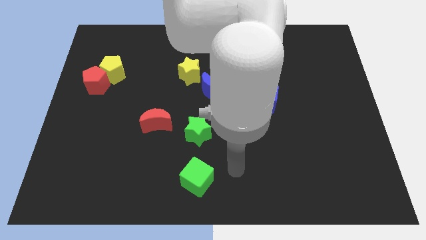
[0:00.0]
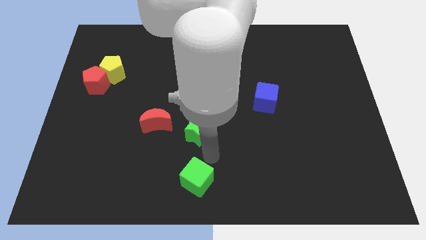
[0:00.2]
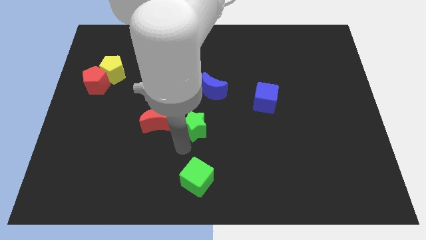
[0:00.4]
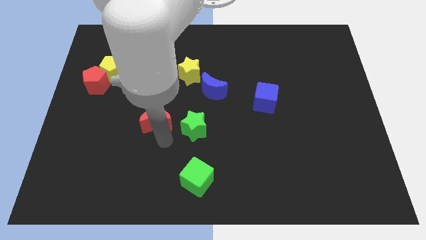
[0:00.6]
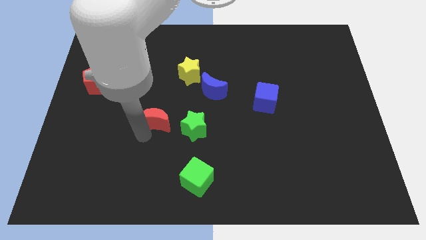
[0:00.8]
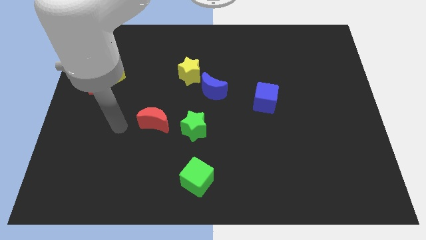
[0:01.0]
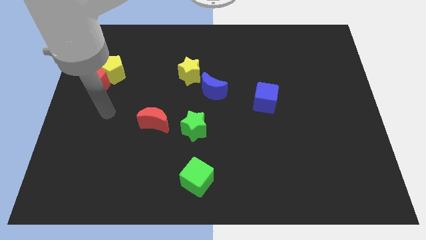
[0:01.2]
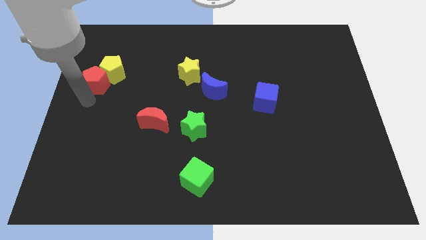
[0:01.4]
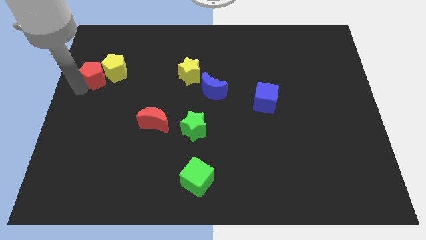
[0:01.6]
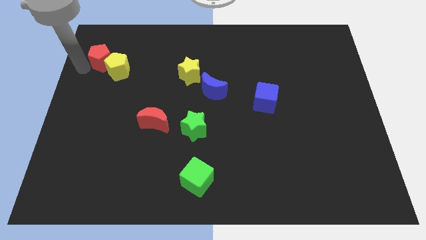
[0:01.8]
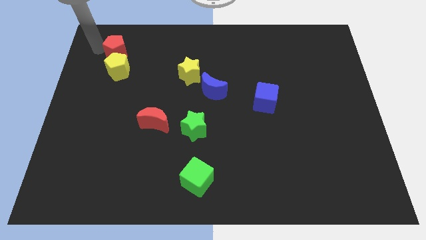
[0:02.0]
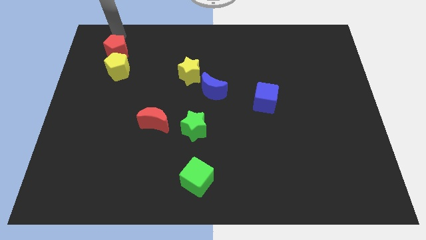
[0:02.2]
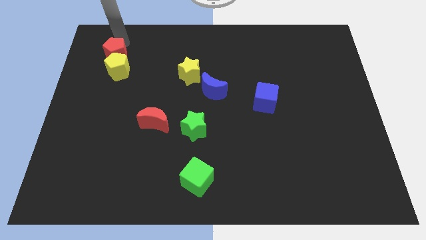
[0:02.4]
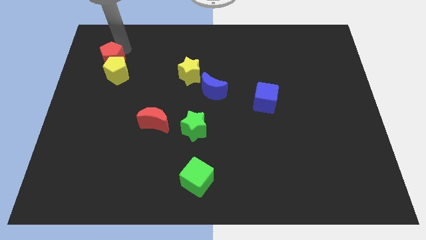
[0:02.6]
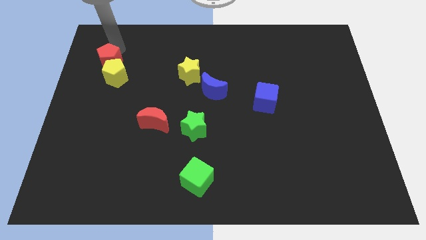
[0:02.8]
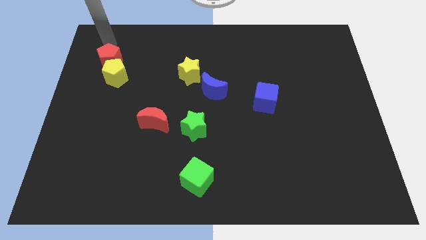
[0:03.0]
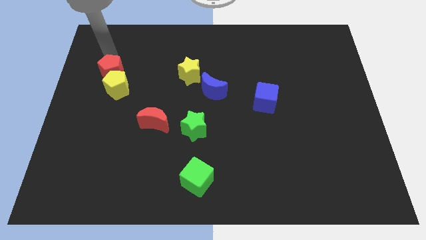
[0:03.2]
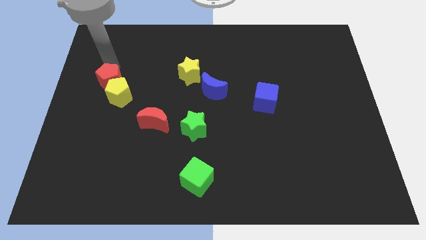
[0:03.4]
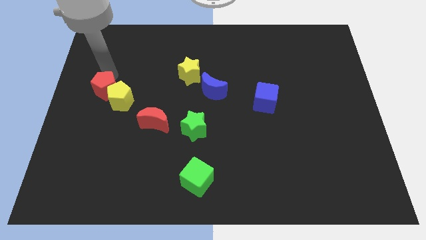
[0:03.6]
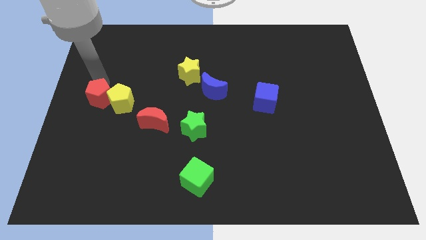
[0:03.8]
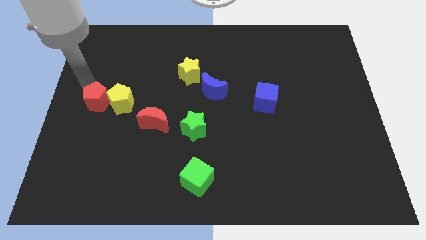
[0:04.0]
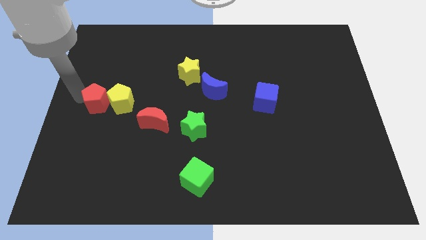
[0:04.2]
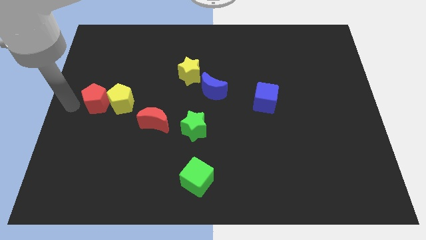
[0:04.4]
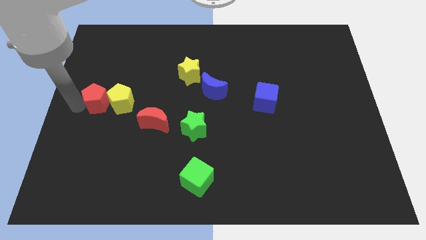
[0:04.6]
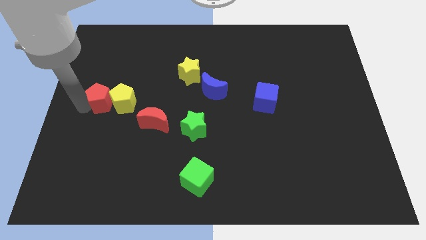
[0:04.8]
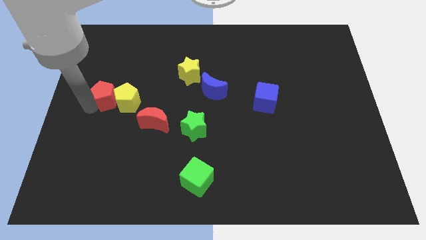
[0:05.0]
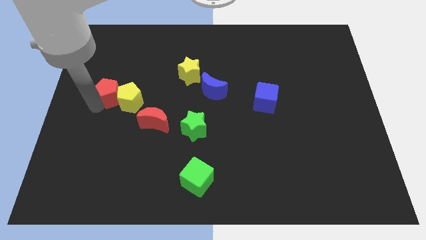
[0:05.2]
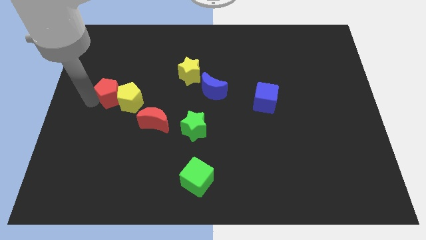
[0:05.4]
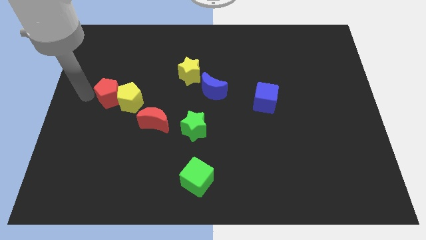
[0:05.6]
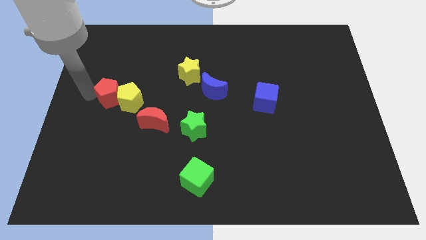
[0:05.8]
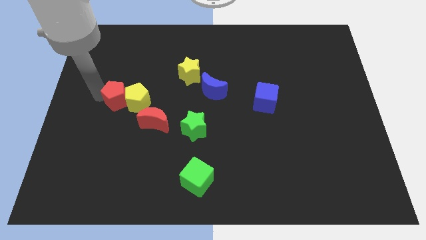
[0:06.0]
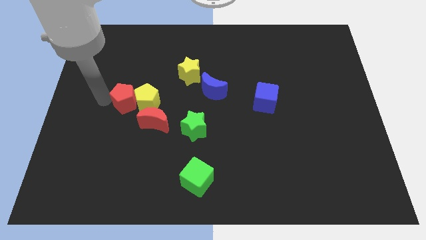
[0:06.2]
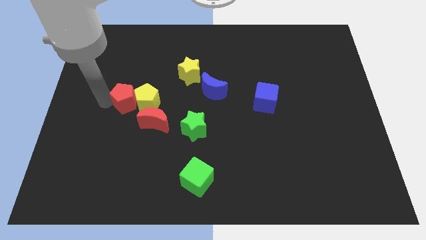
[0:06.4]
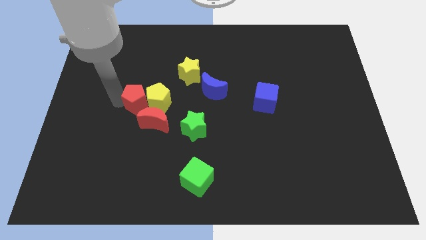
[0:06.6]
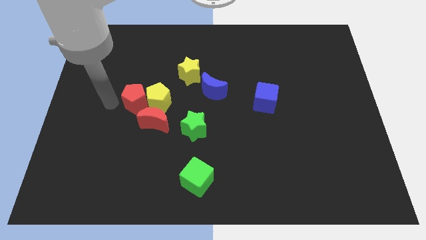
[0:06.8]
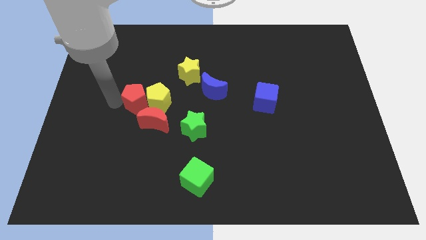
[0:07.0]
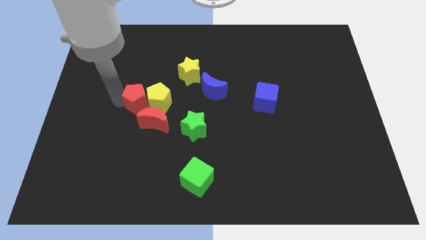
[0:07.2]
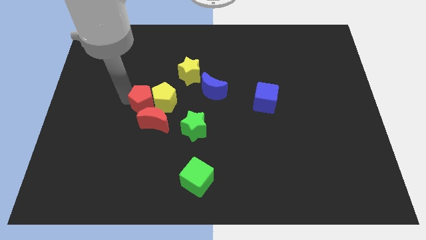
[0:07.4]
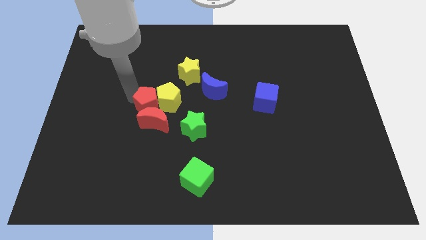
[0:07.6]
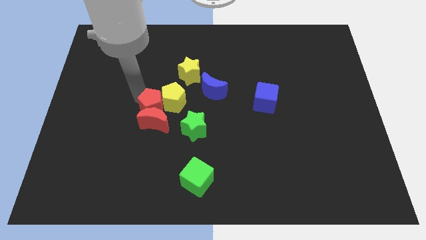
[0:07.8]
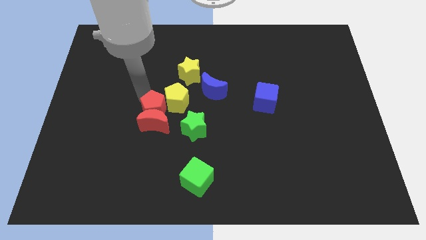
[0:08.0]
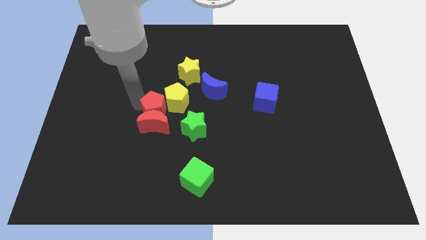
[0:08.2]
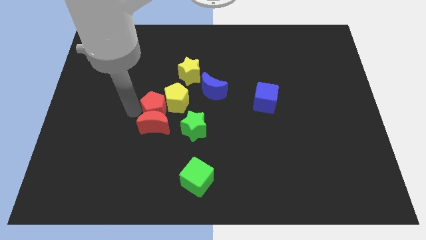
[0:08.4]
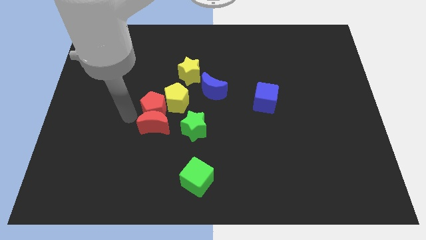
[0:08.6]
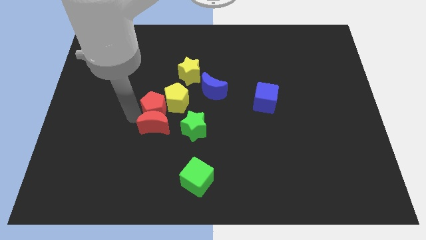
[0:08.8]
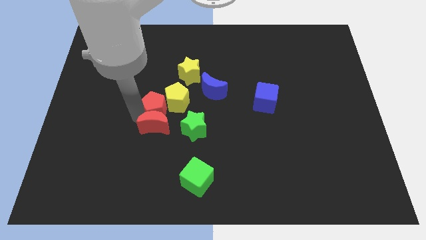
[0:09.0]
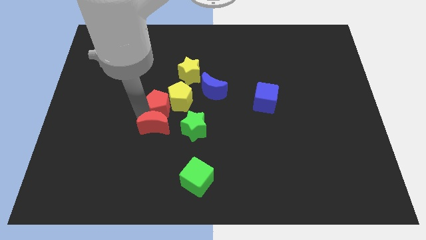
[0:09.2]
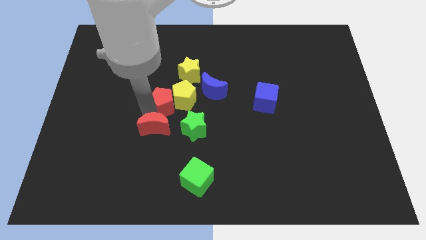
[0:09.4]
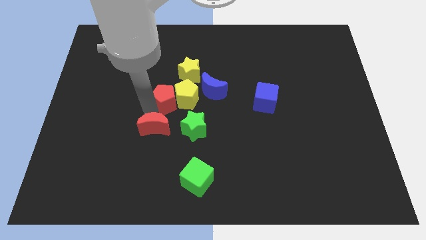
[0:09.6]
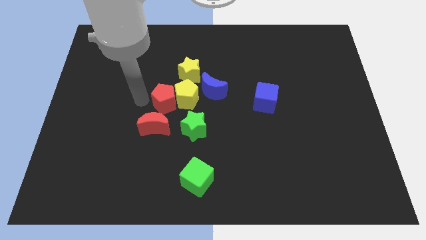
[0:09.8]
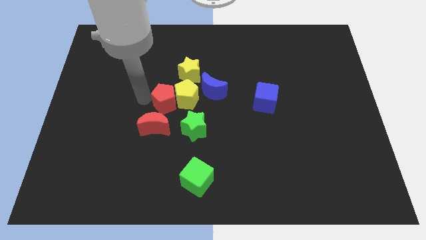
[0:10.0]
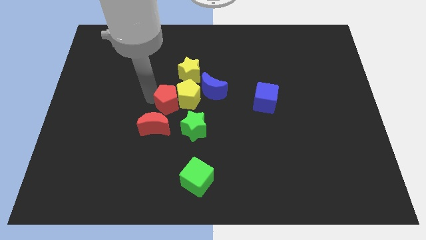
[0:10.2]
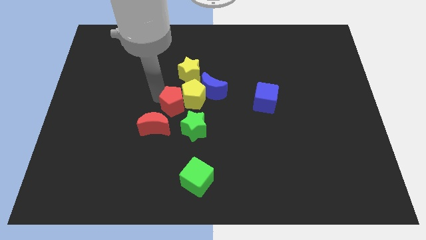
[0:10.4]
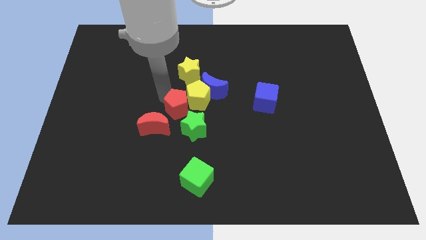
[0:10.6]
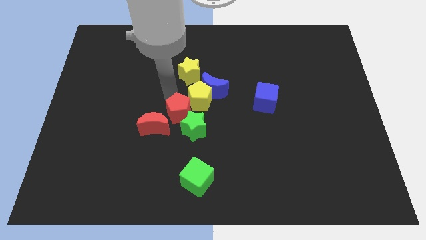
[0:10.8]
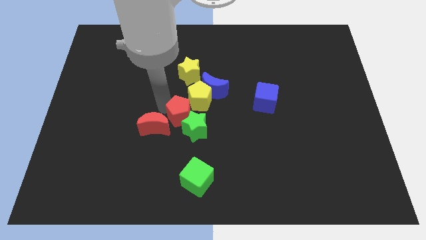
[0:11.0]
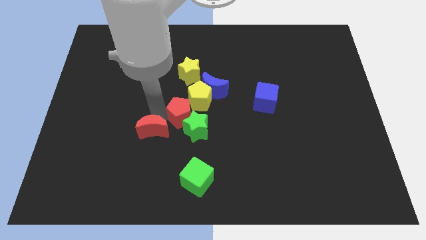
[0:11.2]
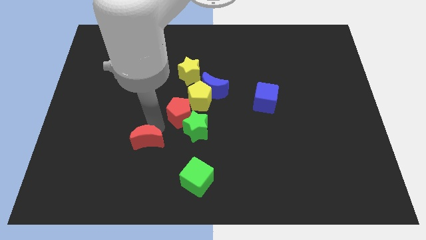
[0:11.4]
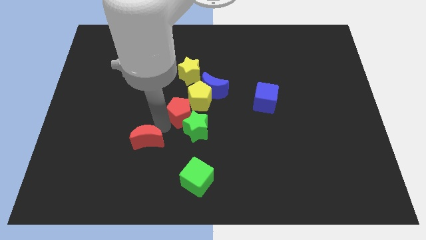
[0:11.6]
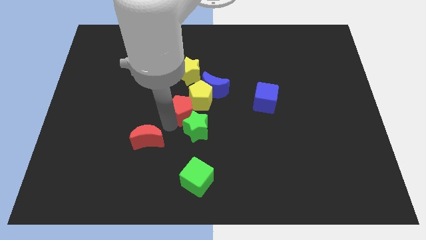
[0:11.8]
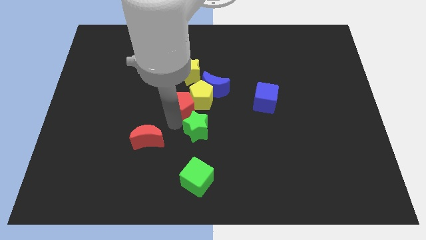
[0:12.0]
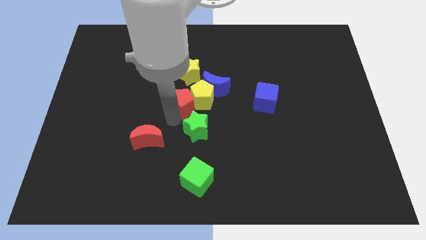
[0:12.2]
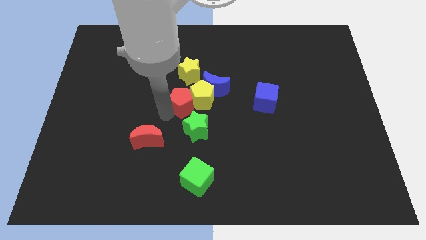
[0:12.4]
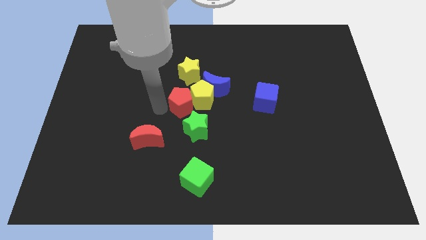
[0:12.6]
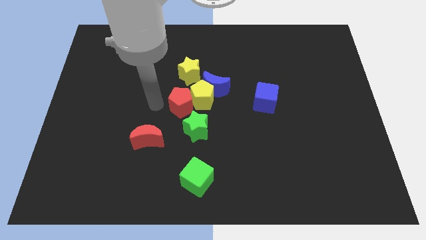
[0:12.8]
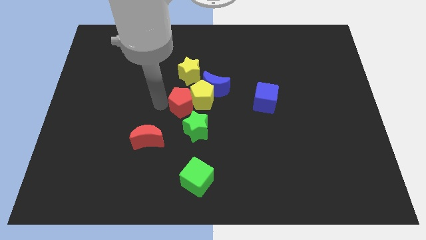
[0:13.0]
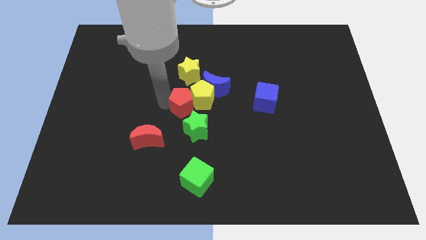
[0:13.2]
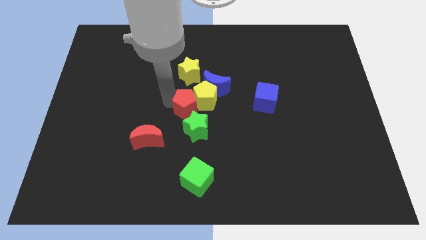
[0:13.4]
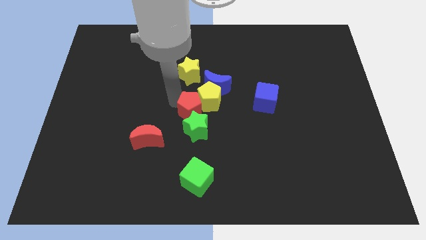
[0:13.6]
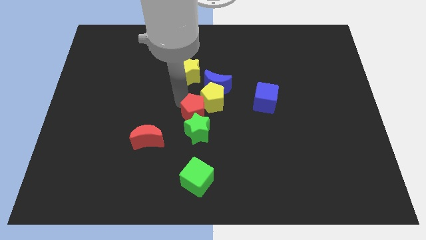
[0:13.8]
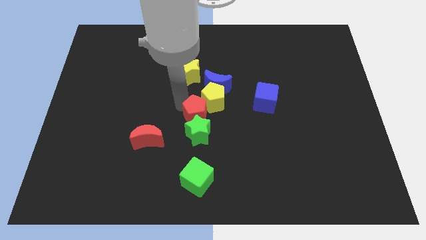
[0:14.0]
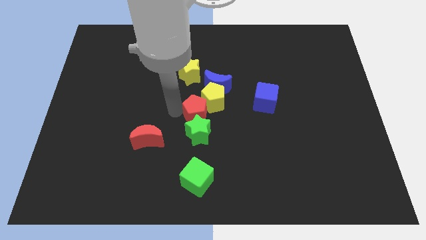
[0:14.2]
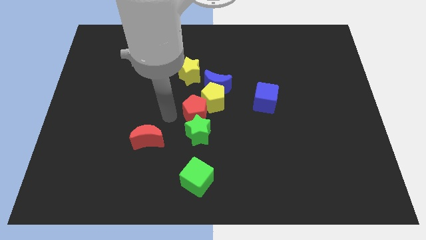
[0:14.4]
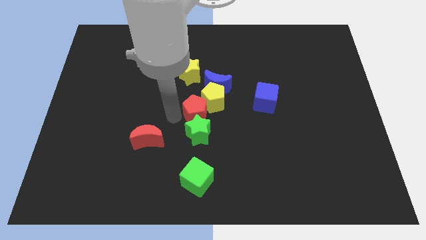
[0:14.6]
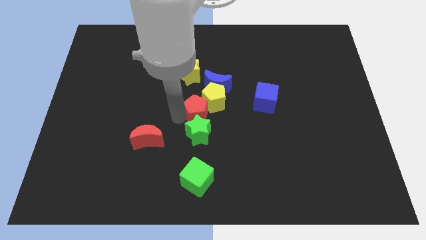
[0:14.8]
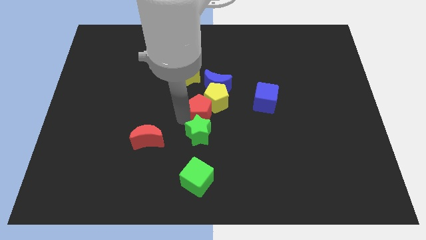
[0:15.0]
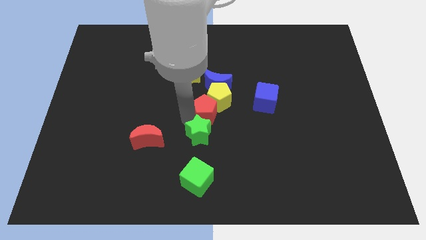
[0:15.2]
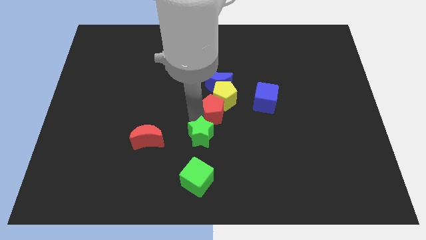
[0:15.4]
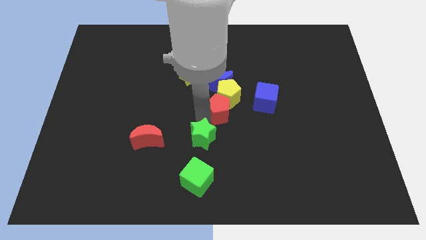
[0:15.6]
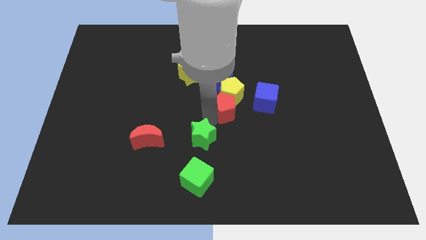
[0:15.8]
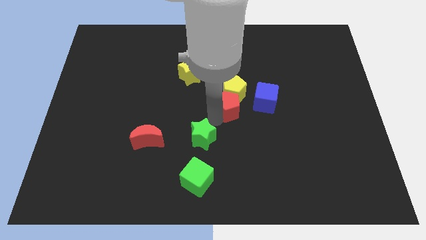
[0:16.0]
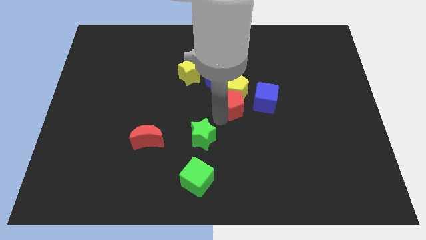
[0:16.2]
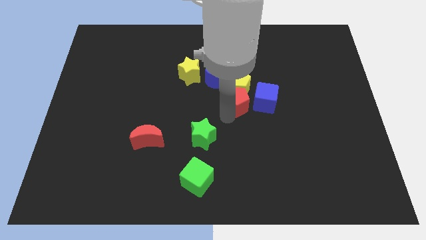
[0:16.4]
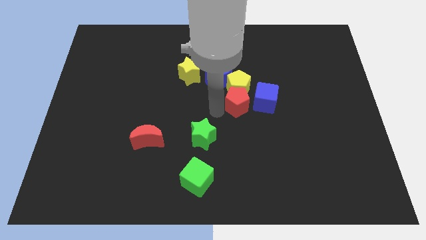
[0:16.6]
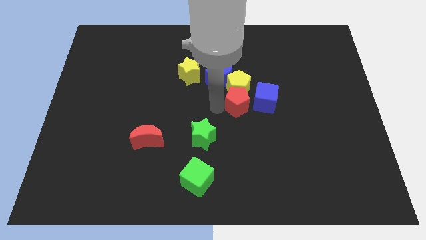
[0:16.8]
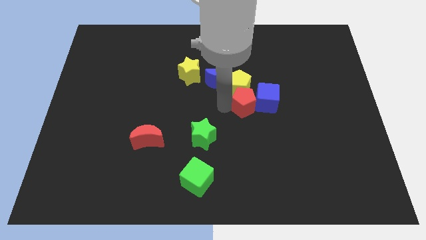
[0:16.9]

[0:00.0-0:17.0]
slide the red pentagon towards the blue cube
